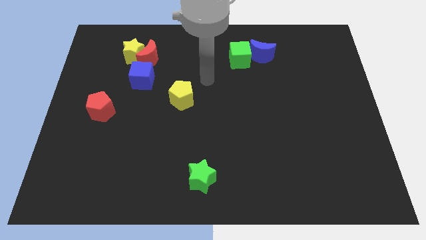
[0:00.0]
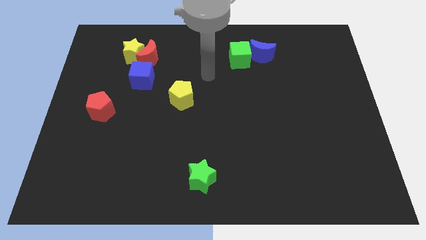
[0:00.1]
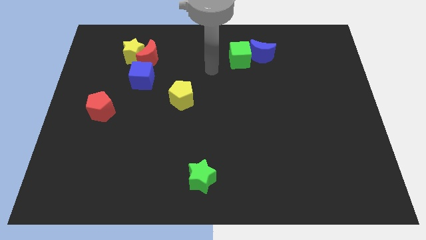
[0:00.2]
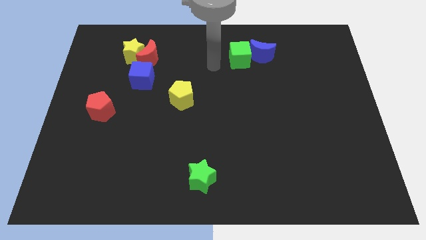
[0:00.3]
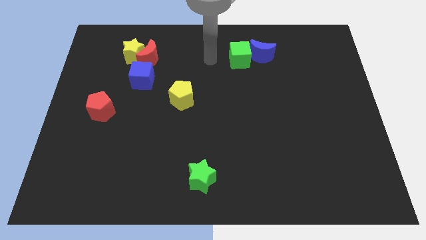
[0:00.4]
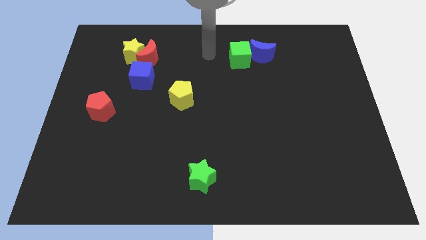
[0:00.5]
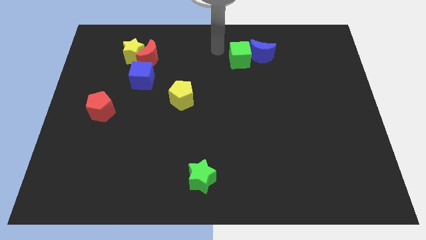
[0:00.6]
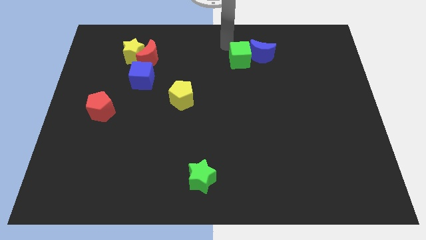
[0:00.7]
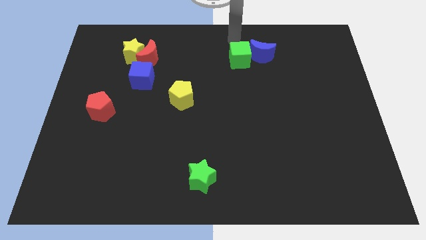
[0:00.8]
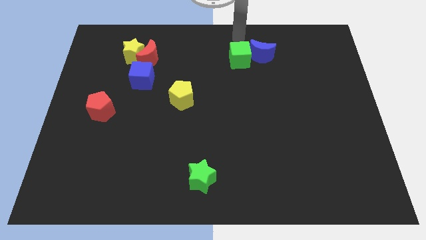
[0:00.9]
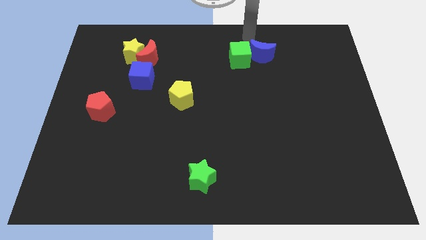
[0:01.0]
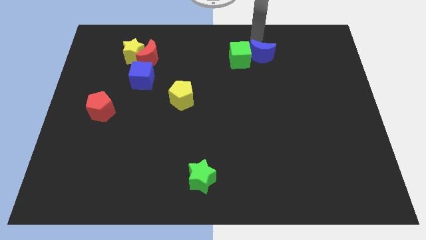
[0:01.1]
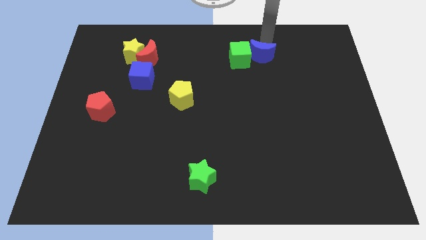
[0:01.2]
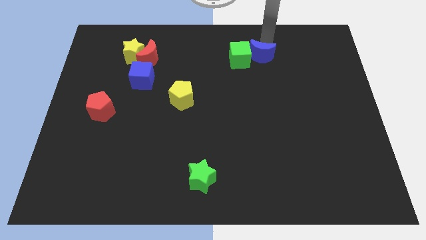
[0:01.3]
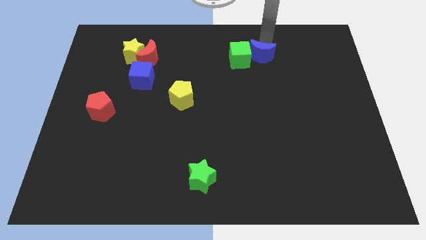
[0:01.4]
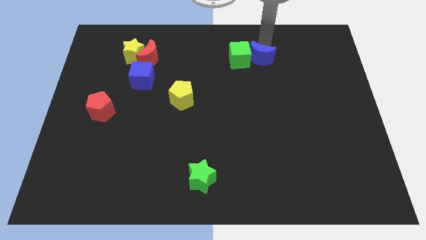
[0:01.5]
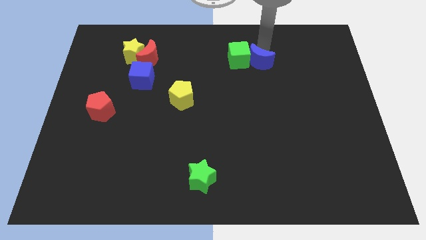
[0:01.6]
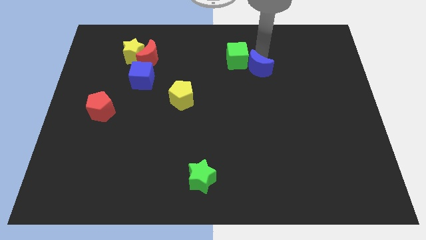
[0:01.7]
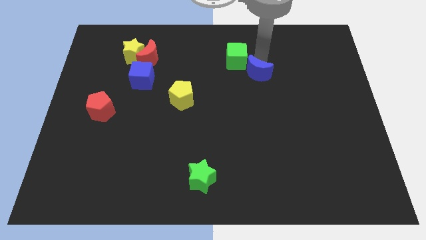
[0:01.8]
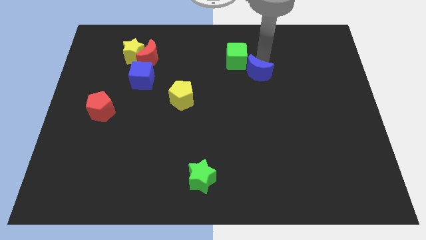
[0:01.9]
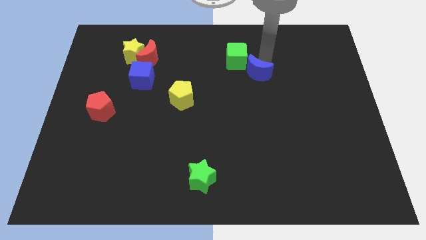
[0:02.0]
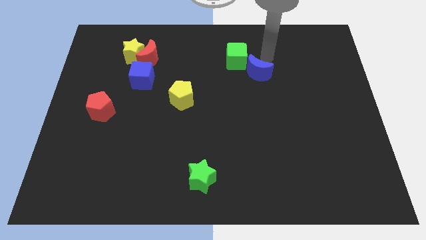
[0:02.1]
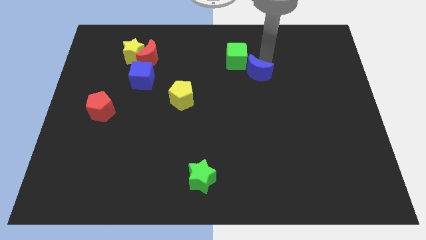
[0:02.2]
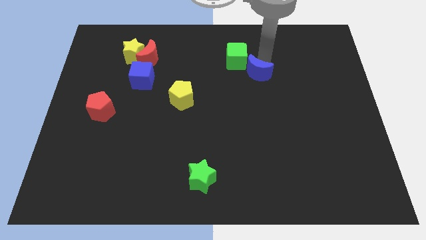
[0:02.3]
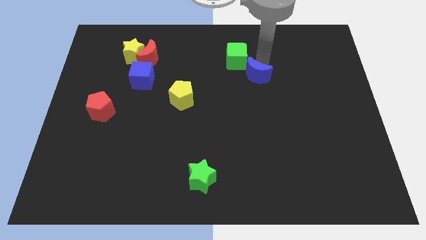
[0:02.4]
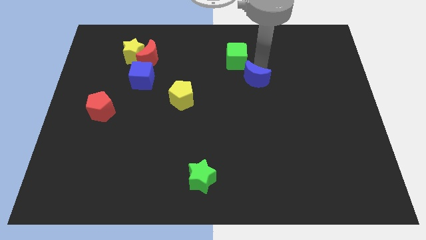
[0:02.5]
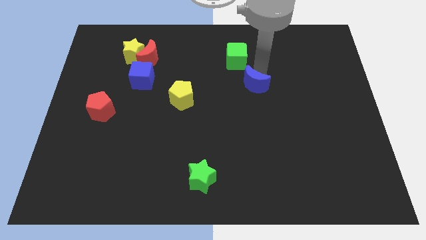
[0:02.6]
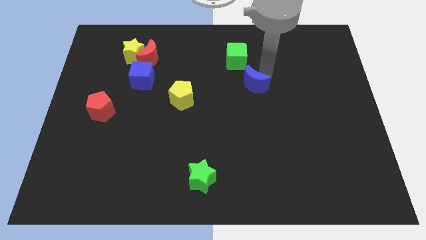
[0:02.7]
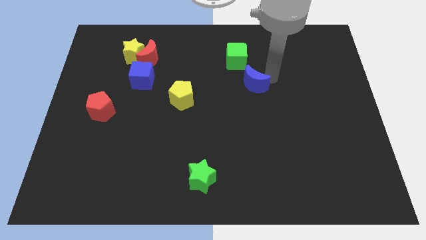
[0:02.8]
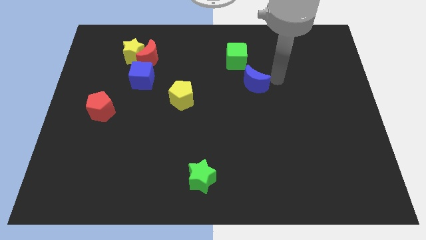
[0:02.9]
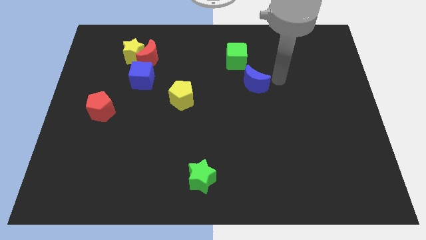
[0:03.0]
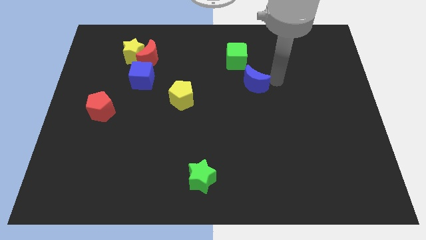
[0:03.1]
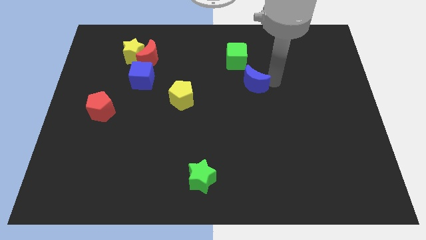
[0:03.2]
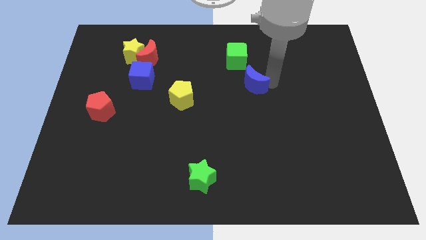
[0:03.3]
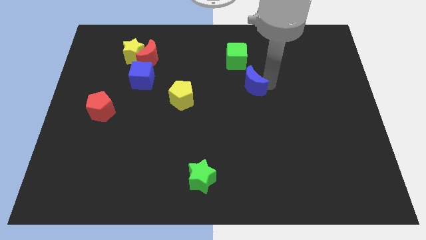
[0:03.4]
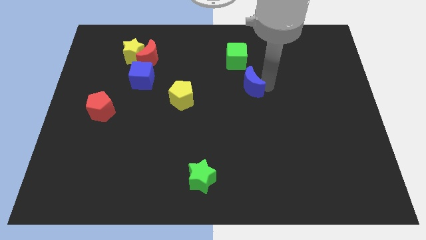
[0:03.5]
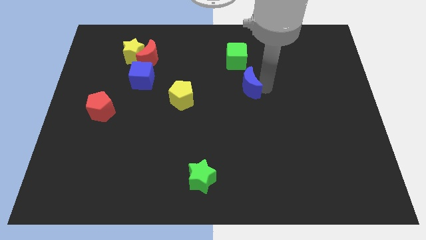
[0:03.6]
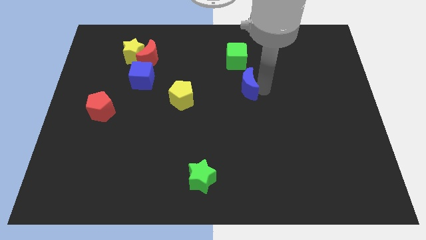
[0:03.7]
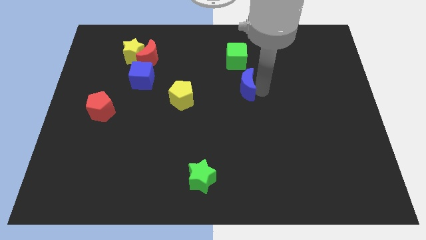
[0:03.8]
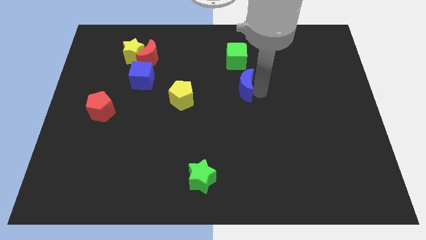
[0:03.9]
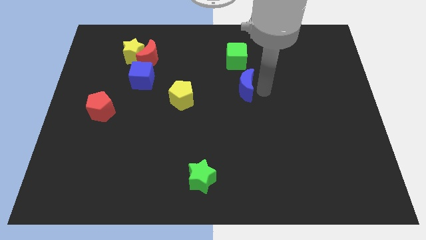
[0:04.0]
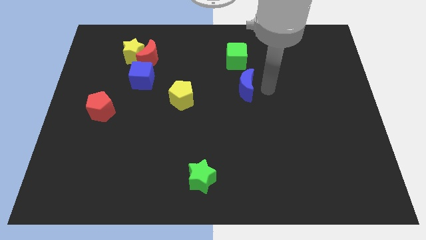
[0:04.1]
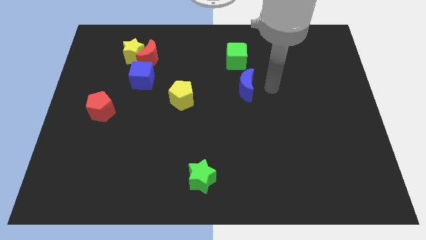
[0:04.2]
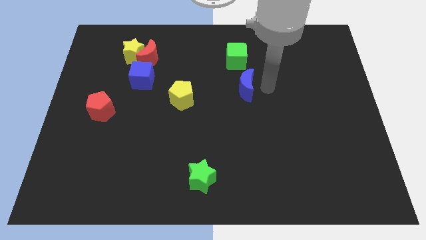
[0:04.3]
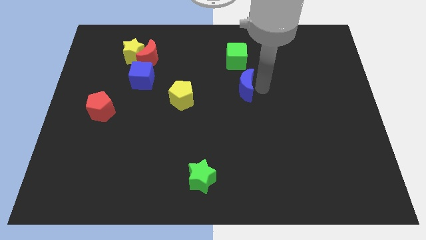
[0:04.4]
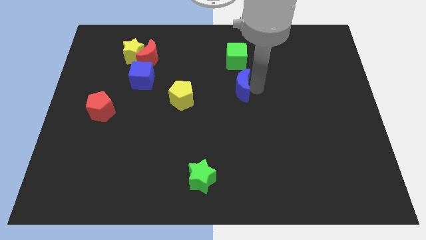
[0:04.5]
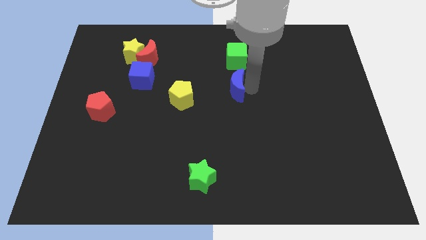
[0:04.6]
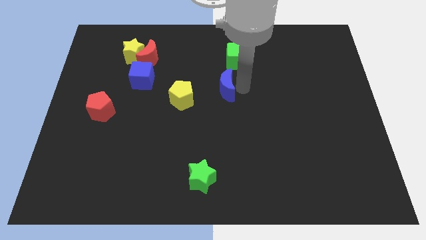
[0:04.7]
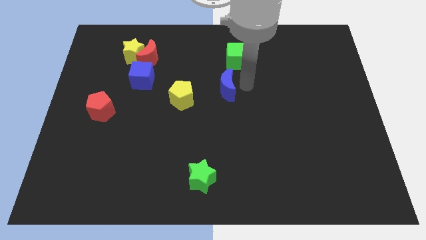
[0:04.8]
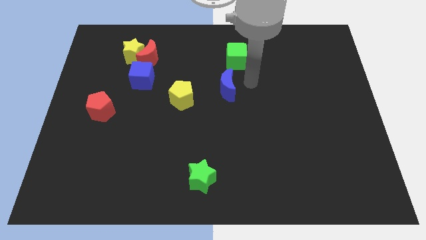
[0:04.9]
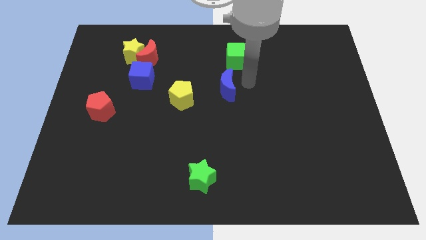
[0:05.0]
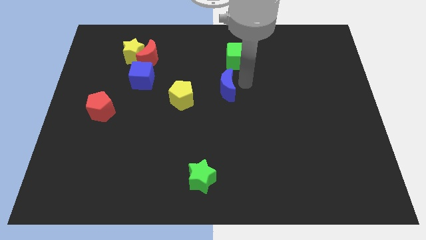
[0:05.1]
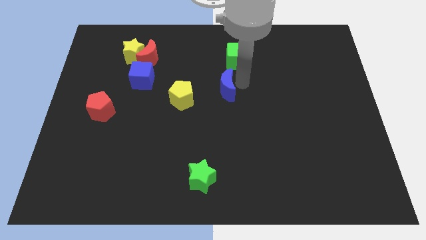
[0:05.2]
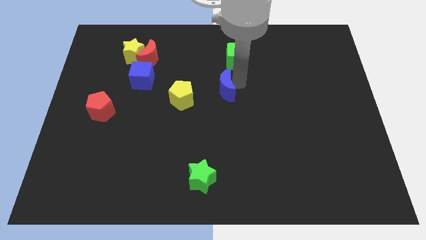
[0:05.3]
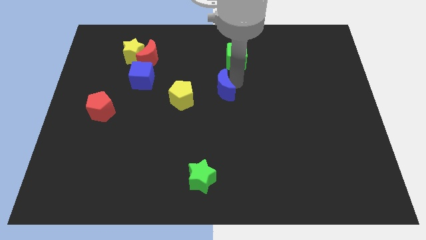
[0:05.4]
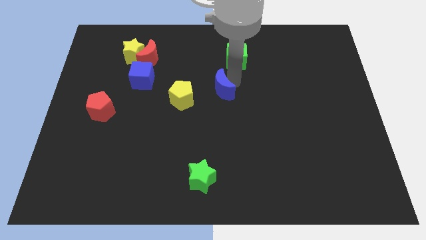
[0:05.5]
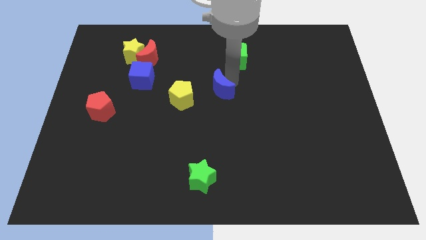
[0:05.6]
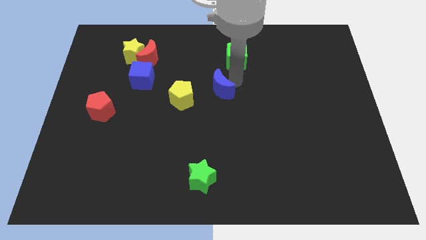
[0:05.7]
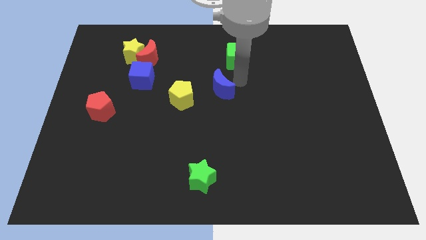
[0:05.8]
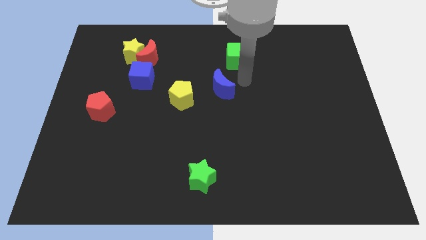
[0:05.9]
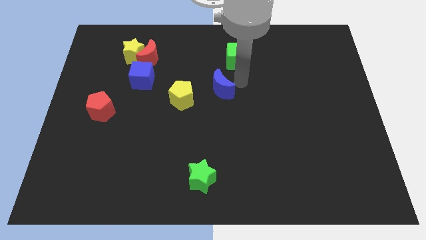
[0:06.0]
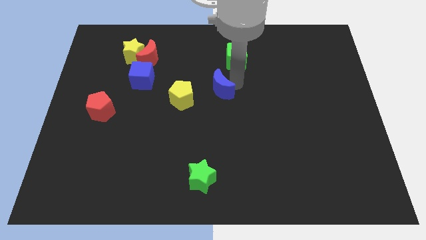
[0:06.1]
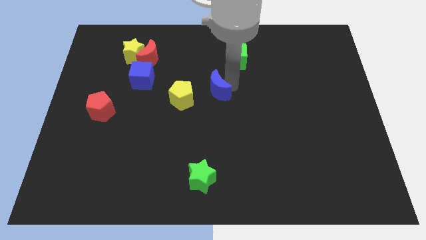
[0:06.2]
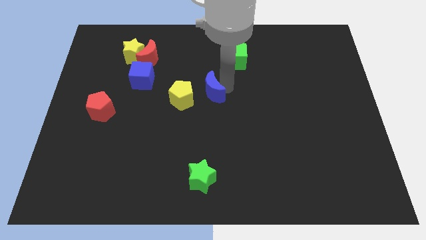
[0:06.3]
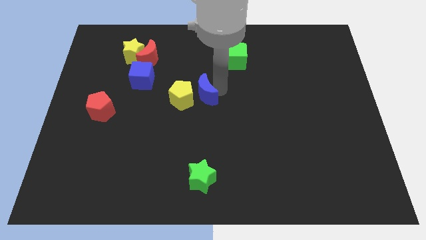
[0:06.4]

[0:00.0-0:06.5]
move the blue moon to the yellow pentagon

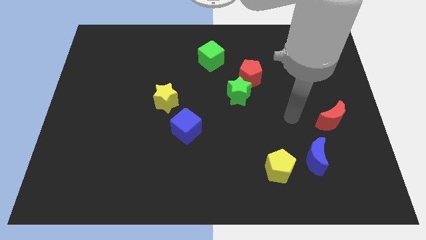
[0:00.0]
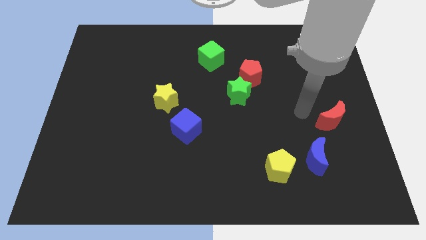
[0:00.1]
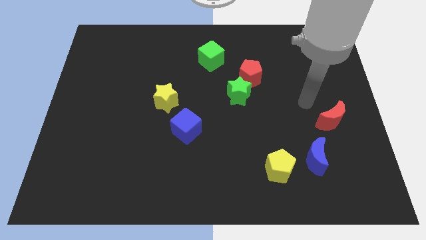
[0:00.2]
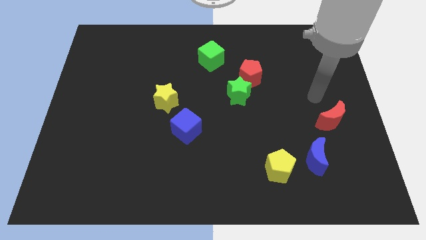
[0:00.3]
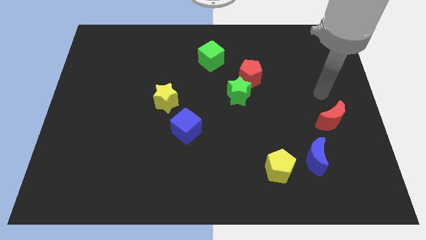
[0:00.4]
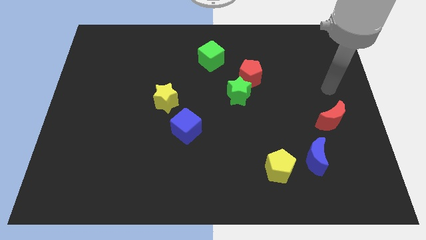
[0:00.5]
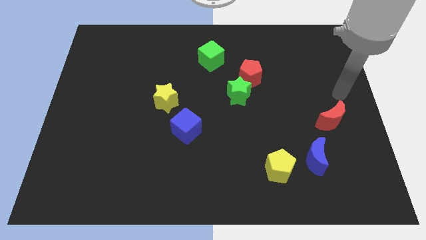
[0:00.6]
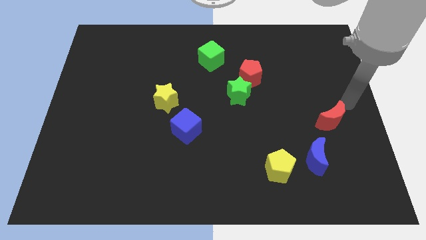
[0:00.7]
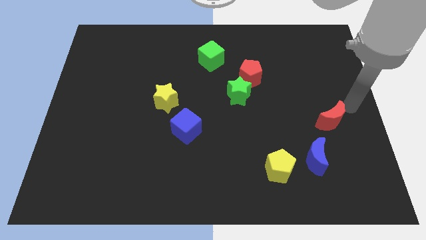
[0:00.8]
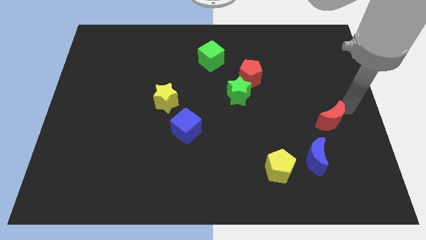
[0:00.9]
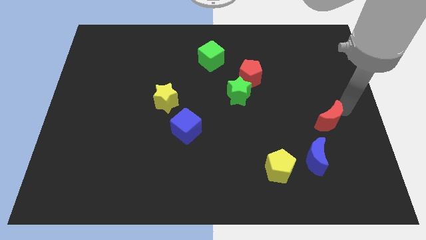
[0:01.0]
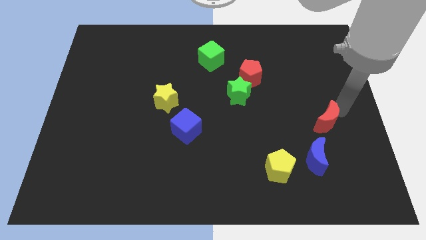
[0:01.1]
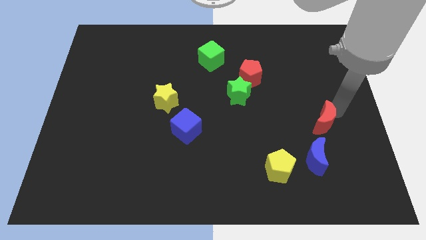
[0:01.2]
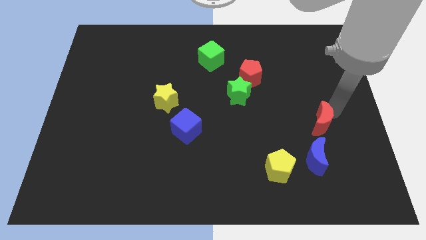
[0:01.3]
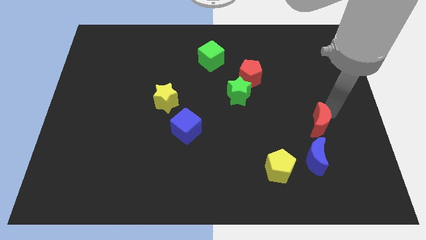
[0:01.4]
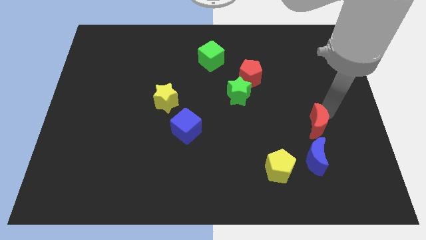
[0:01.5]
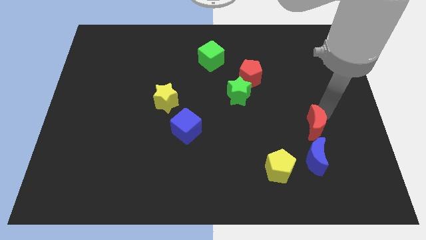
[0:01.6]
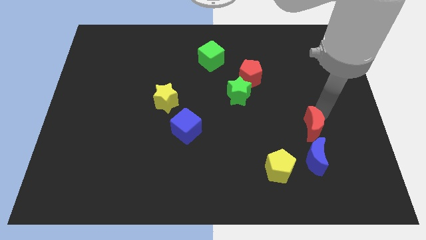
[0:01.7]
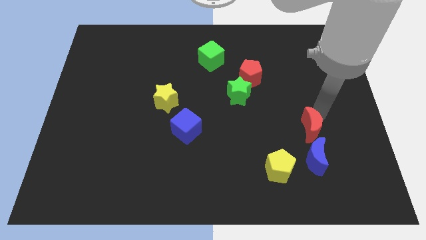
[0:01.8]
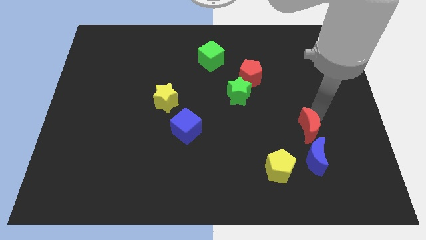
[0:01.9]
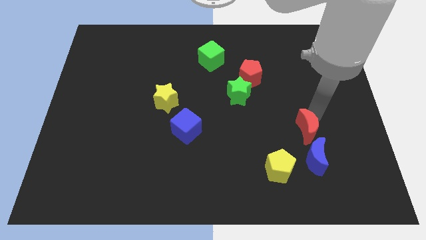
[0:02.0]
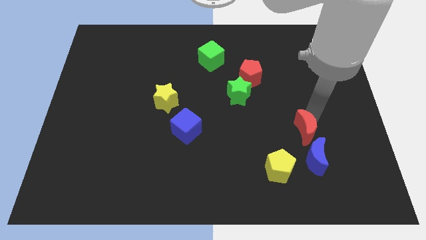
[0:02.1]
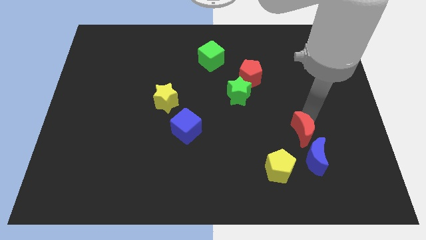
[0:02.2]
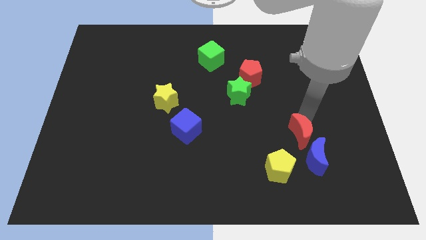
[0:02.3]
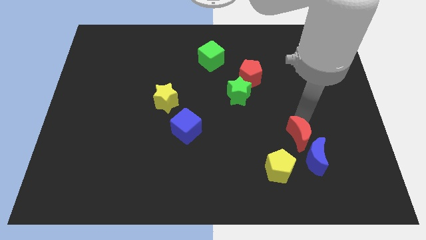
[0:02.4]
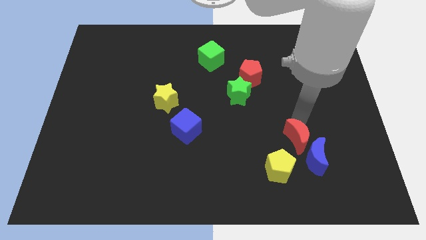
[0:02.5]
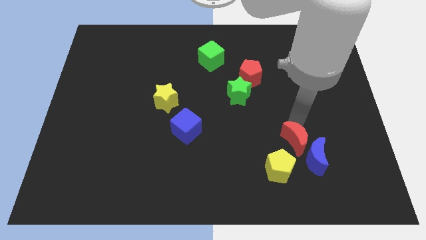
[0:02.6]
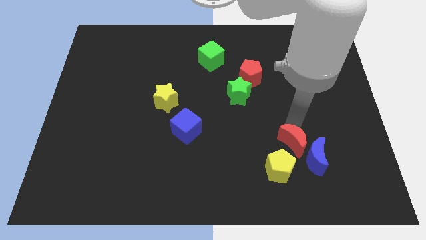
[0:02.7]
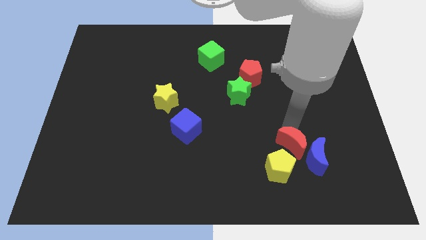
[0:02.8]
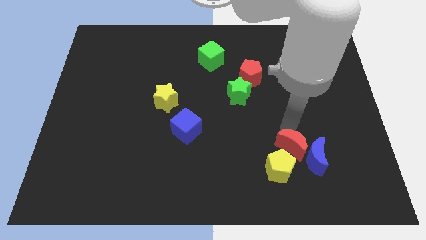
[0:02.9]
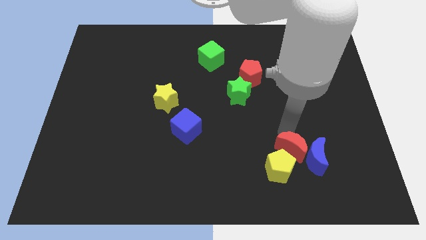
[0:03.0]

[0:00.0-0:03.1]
put the red moon towards the yellow pentagon
